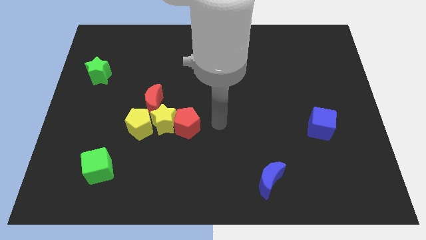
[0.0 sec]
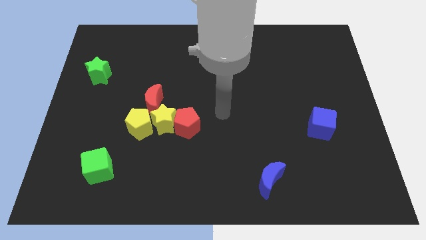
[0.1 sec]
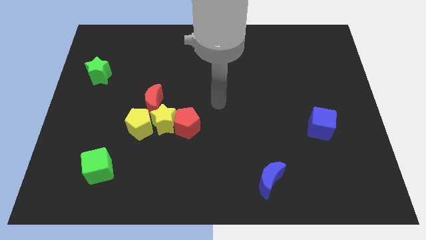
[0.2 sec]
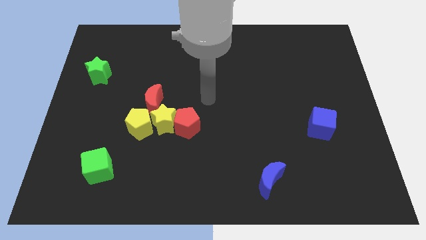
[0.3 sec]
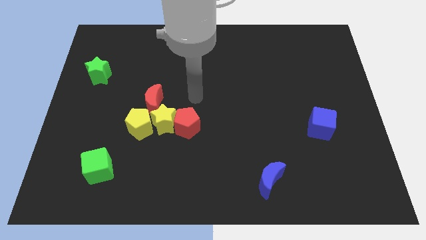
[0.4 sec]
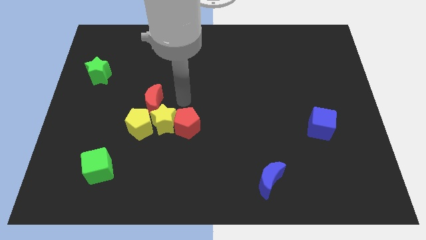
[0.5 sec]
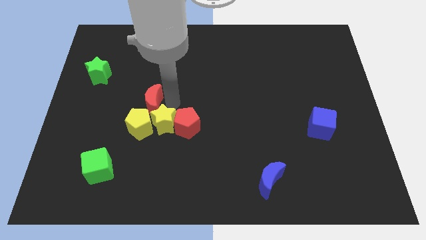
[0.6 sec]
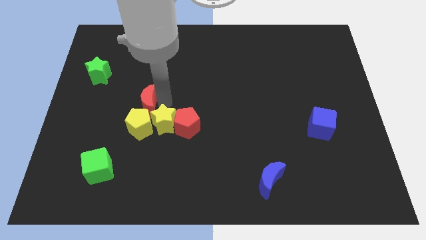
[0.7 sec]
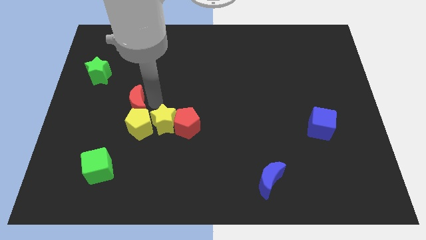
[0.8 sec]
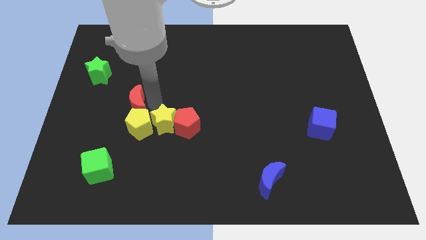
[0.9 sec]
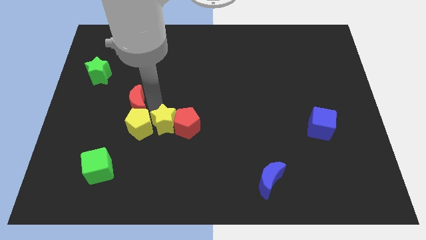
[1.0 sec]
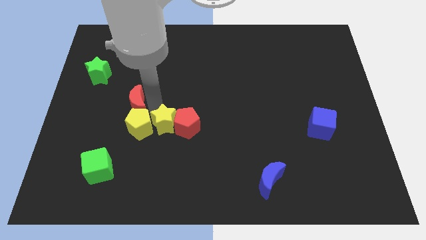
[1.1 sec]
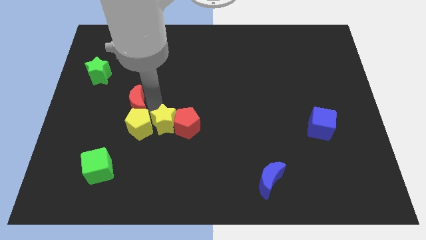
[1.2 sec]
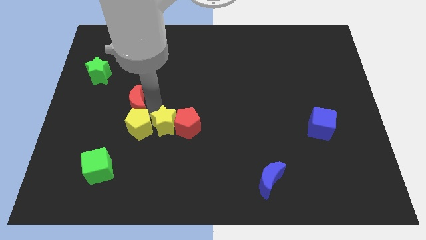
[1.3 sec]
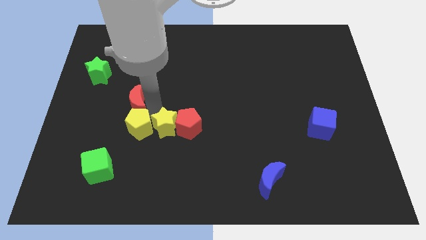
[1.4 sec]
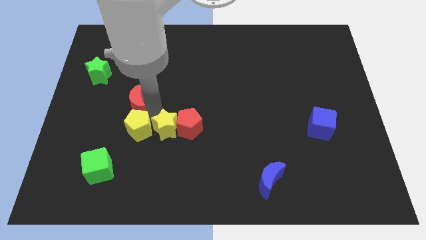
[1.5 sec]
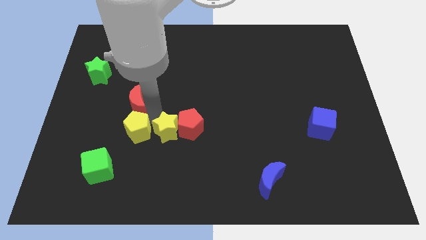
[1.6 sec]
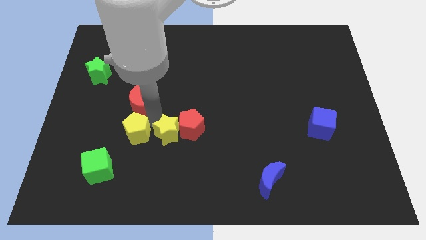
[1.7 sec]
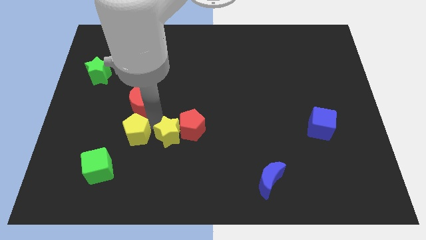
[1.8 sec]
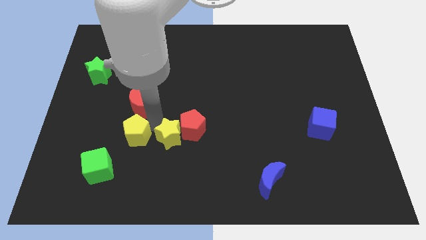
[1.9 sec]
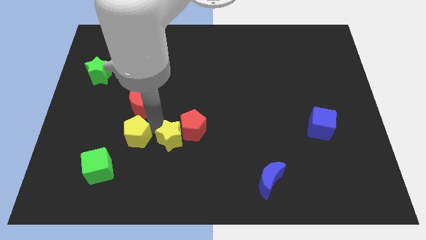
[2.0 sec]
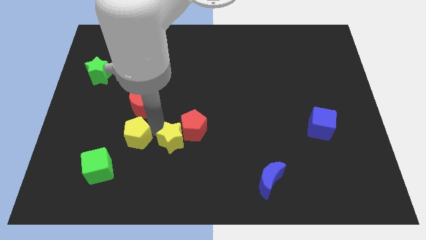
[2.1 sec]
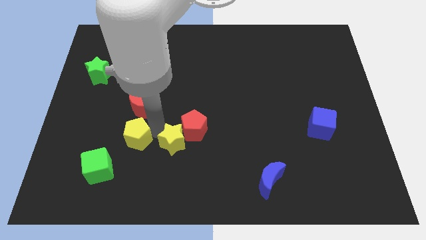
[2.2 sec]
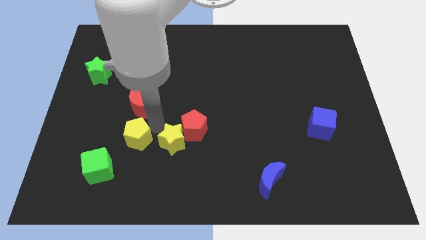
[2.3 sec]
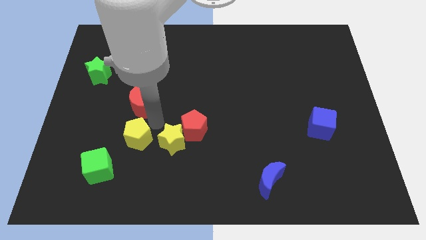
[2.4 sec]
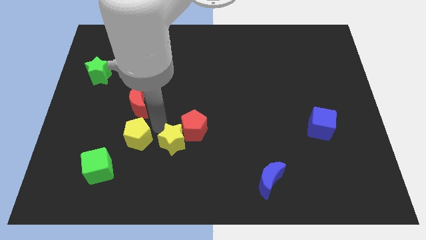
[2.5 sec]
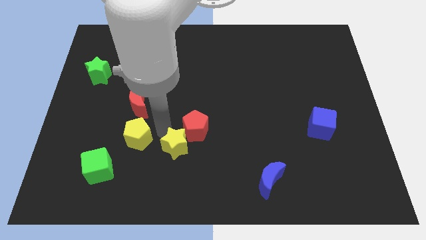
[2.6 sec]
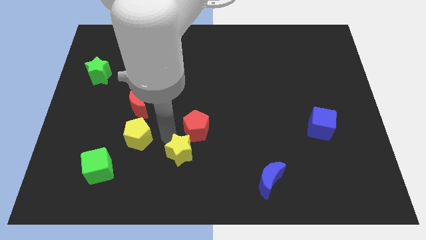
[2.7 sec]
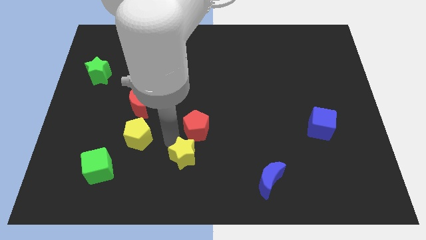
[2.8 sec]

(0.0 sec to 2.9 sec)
separate the yellow star from the red pentagon, yellow pentagon, and red moon

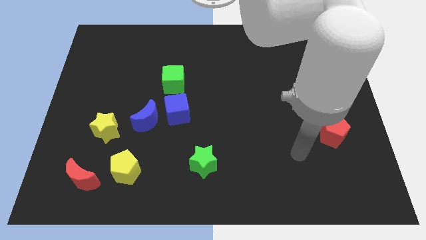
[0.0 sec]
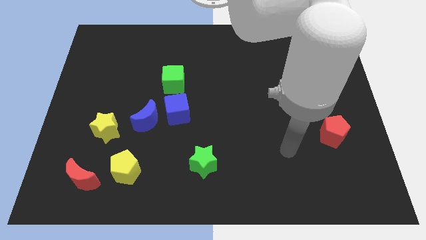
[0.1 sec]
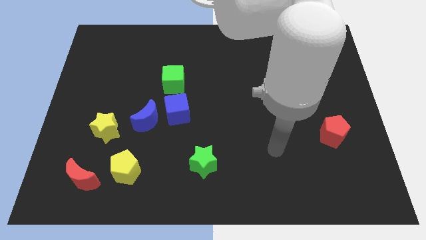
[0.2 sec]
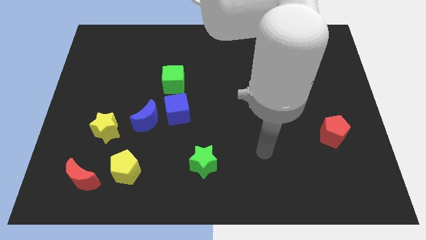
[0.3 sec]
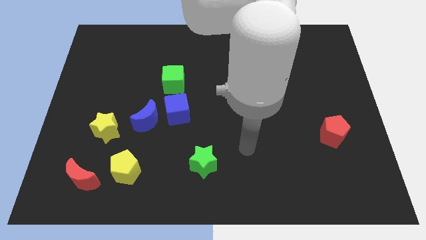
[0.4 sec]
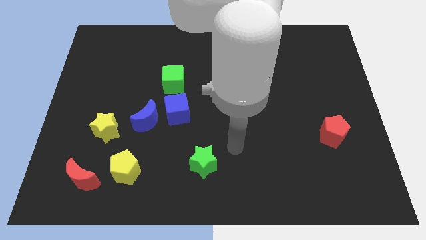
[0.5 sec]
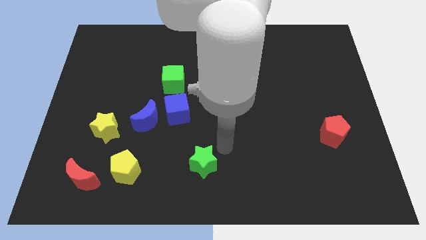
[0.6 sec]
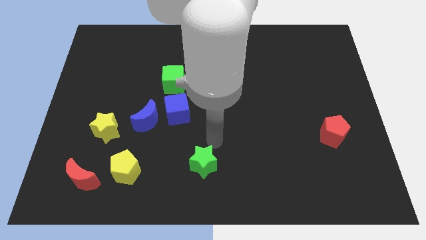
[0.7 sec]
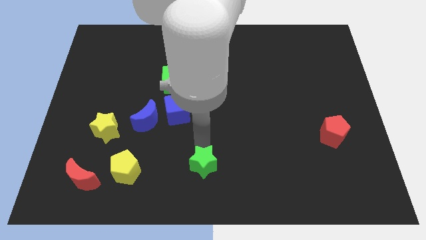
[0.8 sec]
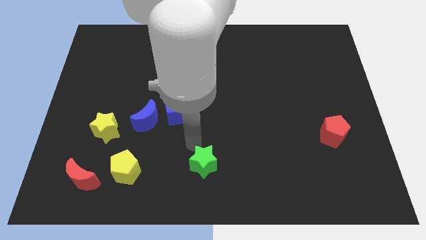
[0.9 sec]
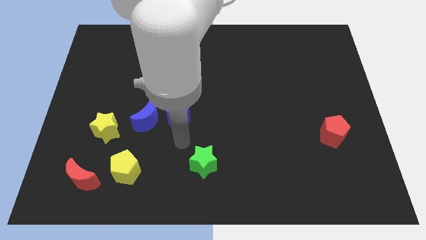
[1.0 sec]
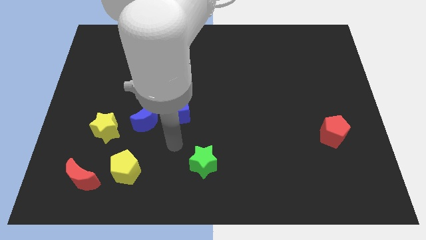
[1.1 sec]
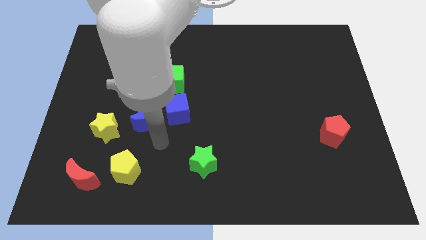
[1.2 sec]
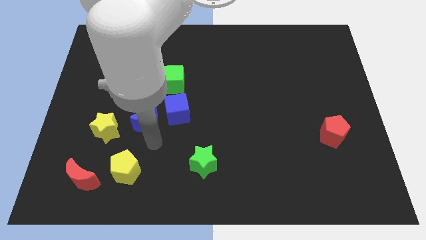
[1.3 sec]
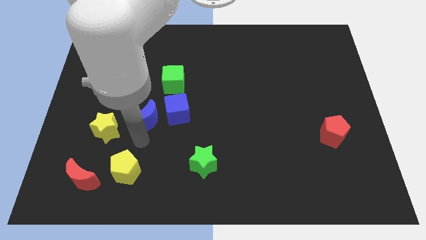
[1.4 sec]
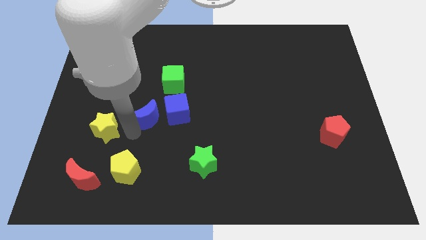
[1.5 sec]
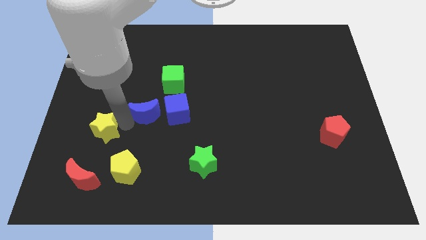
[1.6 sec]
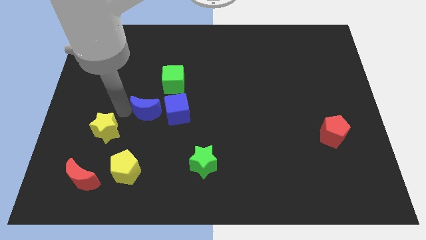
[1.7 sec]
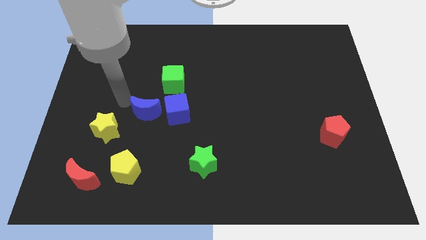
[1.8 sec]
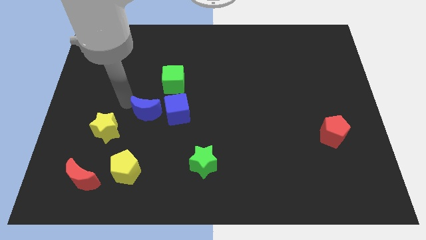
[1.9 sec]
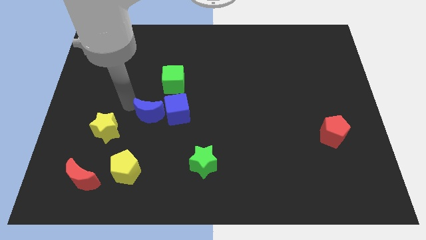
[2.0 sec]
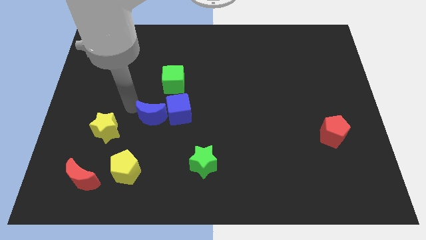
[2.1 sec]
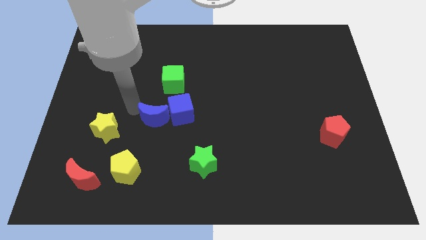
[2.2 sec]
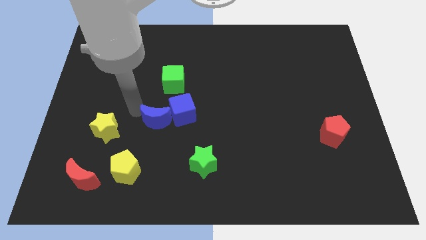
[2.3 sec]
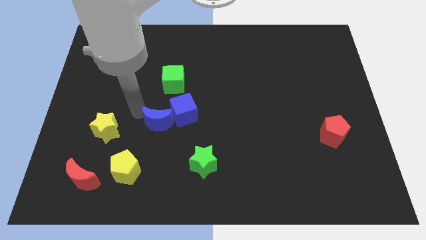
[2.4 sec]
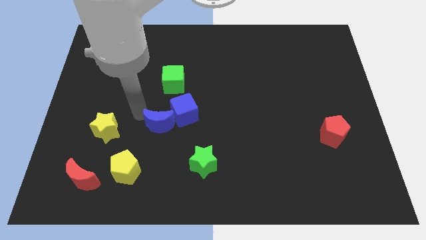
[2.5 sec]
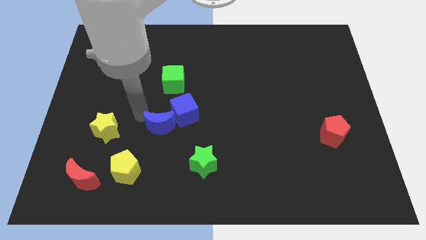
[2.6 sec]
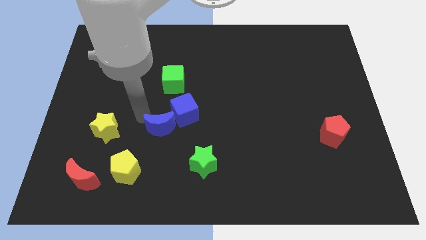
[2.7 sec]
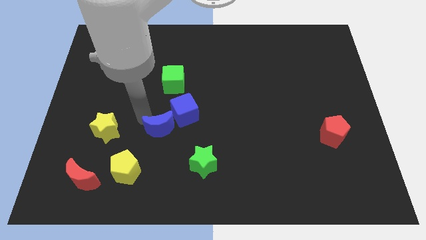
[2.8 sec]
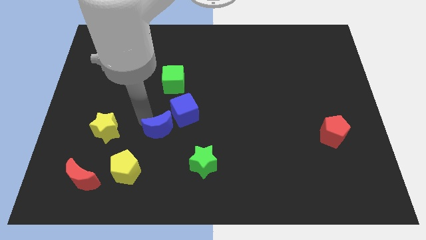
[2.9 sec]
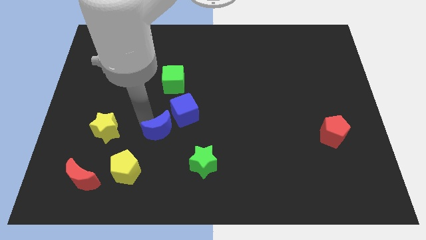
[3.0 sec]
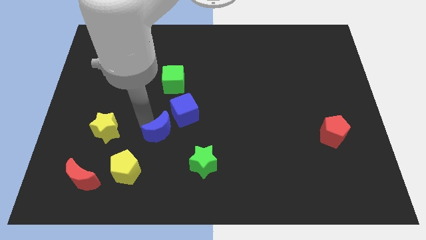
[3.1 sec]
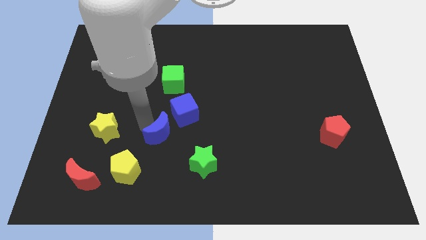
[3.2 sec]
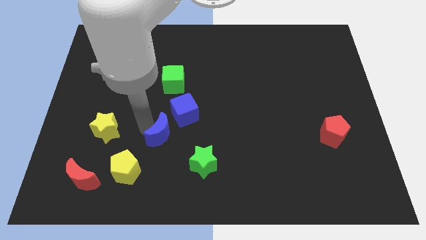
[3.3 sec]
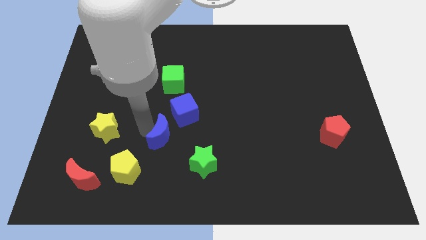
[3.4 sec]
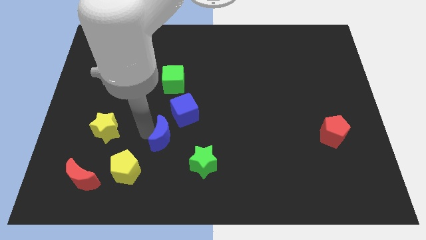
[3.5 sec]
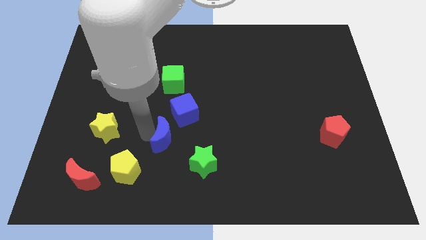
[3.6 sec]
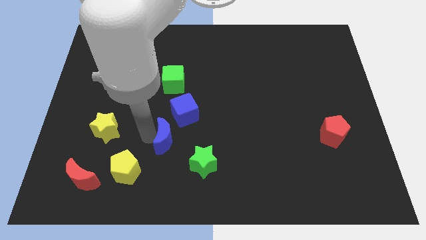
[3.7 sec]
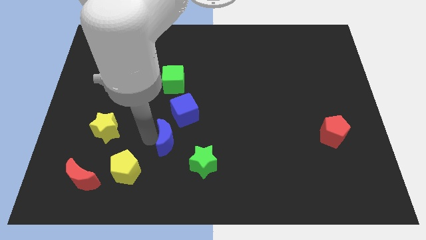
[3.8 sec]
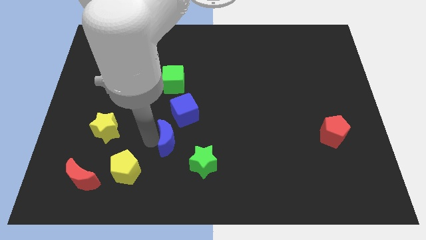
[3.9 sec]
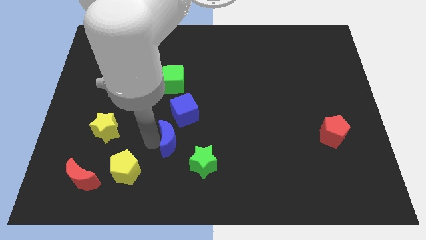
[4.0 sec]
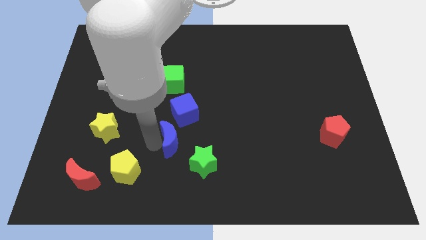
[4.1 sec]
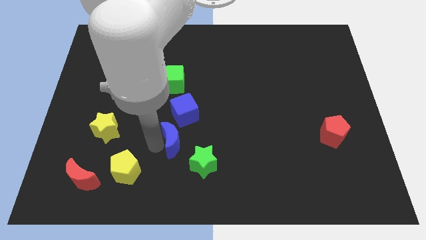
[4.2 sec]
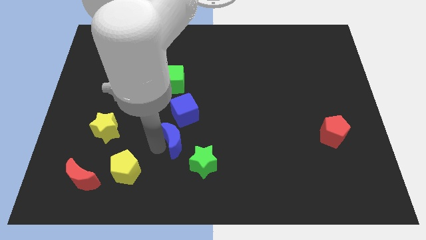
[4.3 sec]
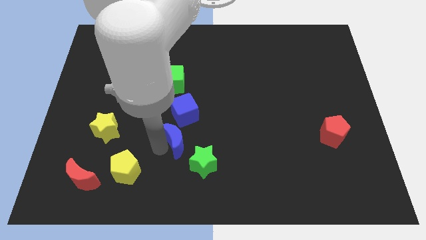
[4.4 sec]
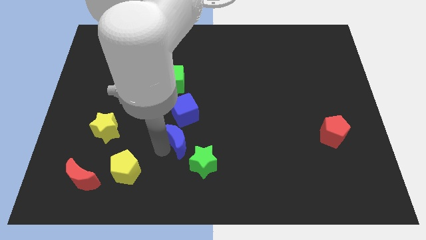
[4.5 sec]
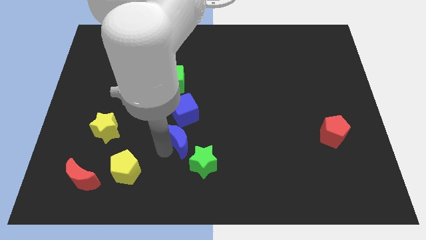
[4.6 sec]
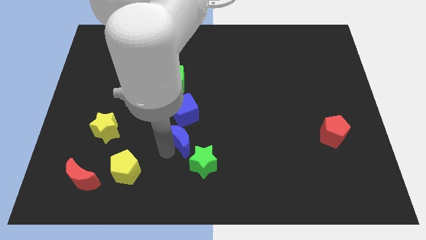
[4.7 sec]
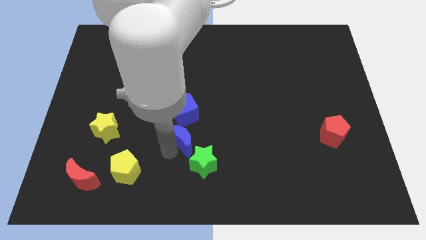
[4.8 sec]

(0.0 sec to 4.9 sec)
move the blue moon away from the blue cube and yellow star

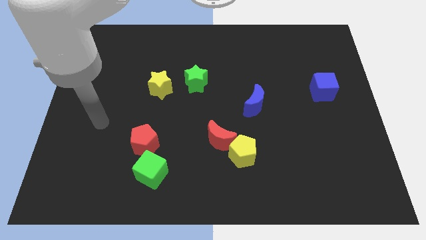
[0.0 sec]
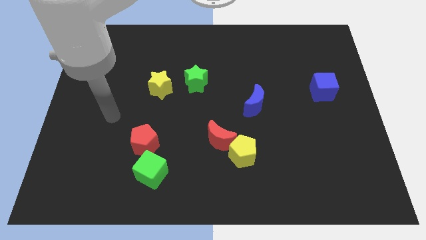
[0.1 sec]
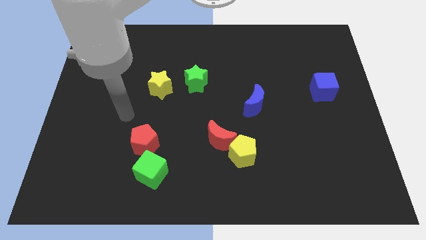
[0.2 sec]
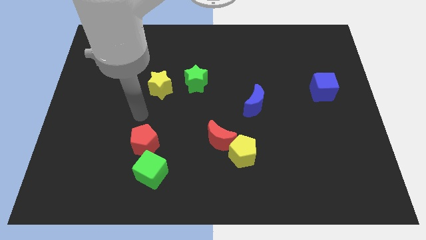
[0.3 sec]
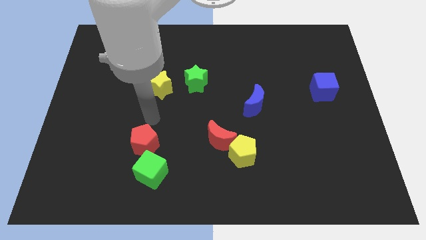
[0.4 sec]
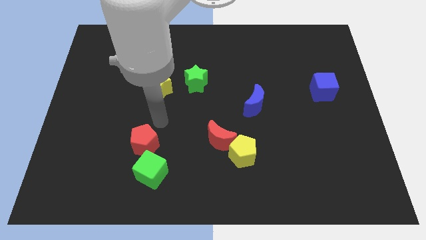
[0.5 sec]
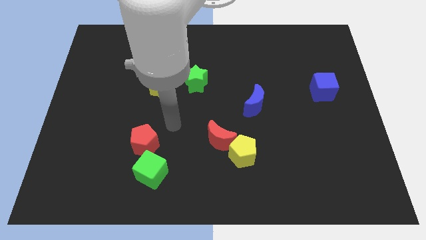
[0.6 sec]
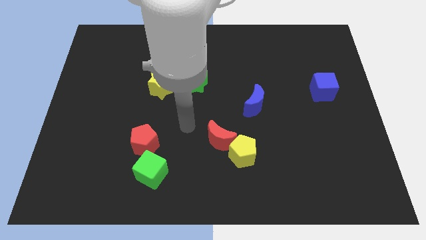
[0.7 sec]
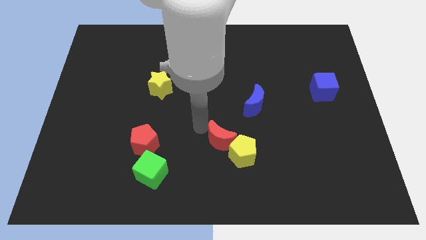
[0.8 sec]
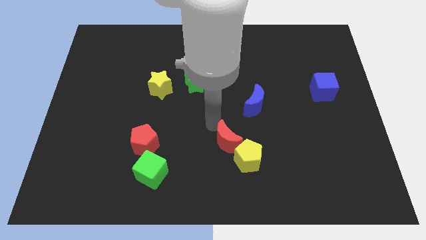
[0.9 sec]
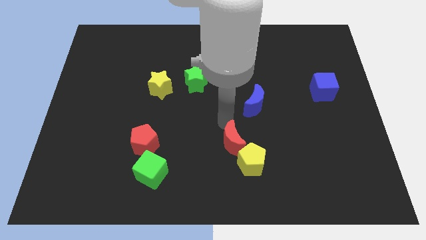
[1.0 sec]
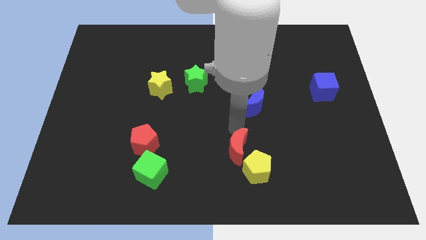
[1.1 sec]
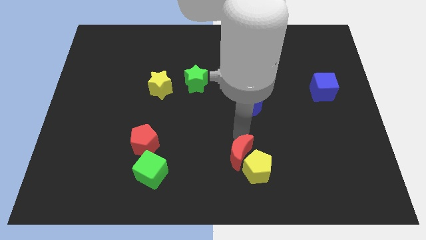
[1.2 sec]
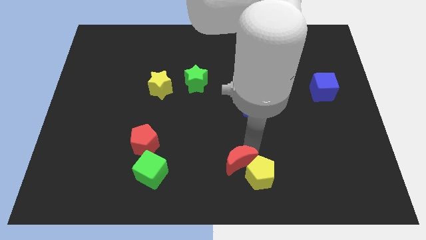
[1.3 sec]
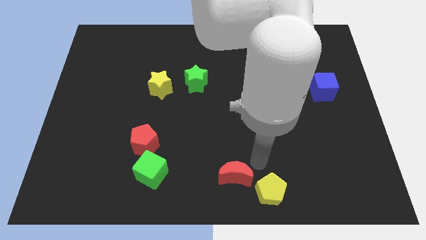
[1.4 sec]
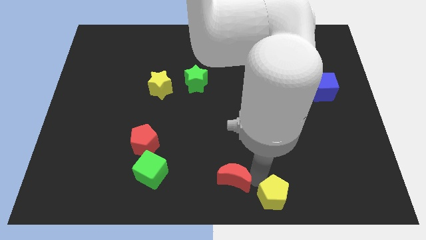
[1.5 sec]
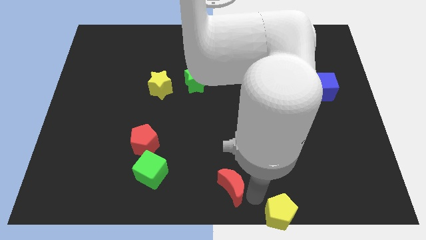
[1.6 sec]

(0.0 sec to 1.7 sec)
pull the red moon apart from the yellow pentagon
